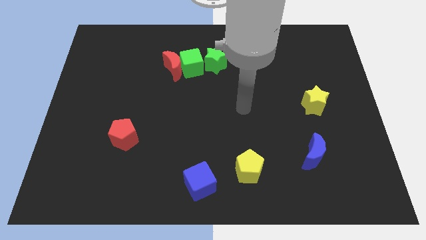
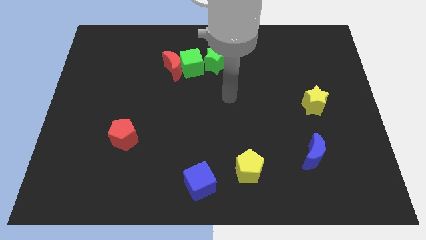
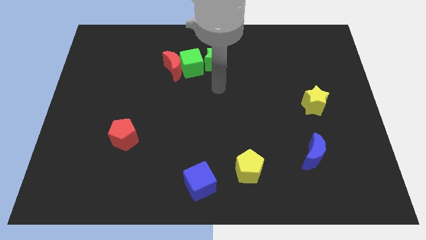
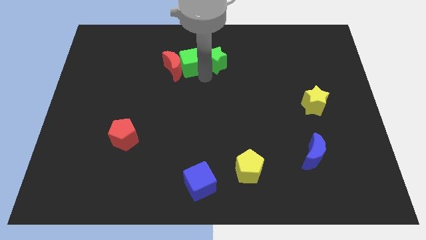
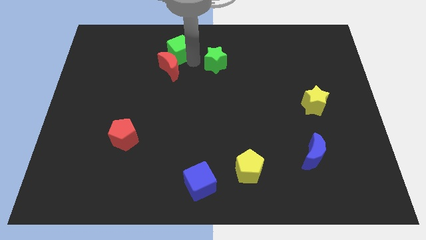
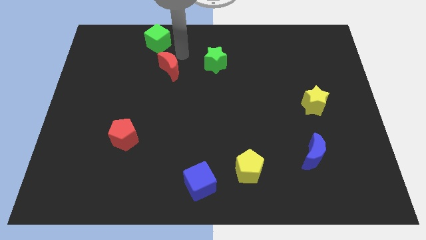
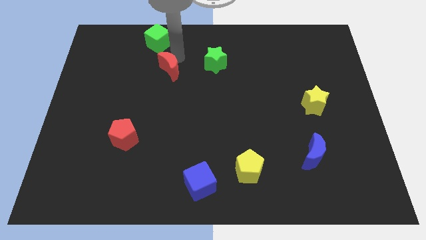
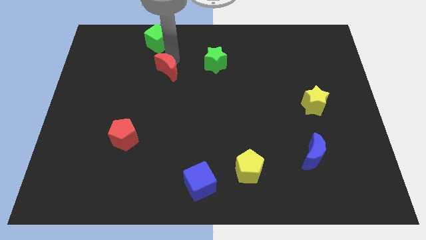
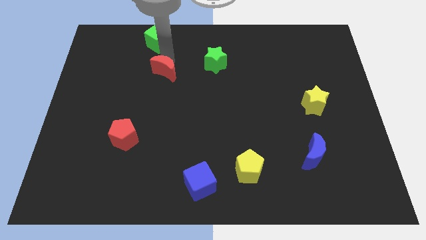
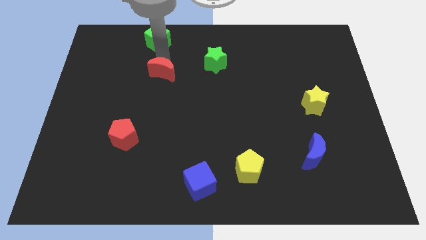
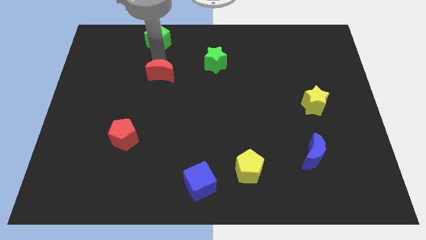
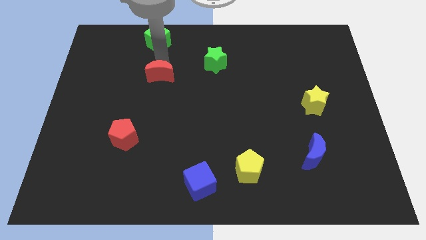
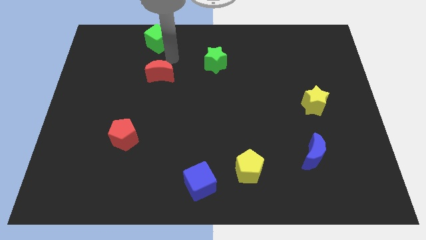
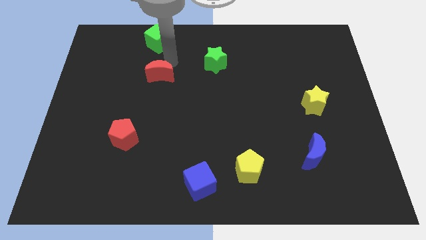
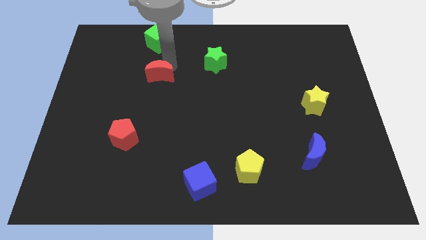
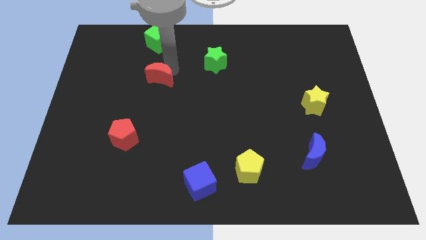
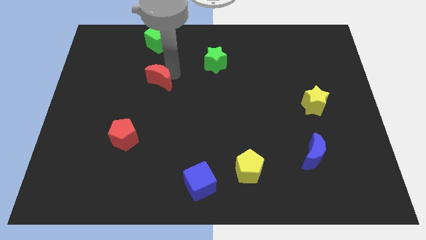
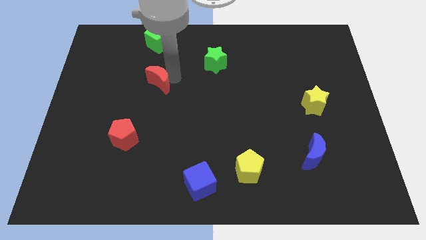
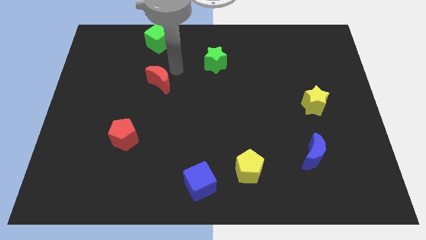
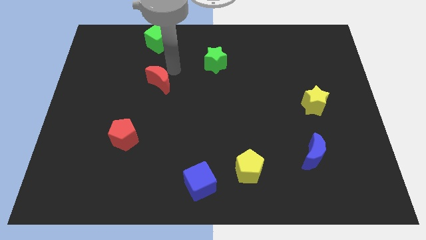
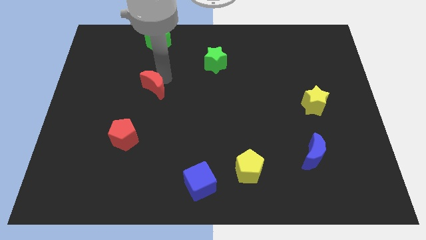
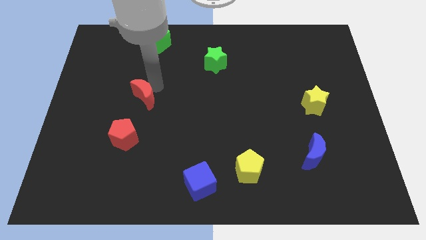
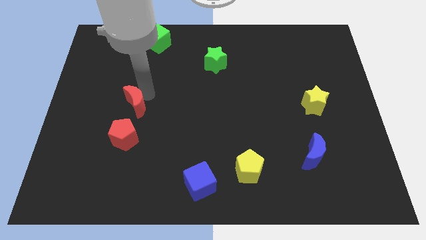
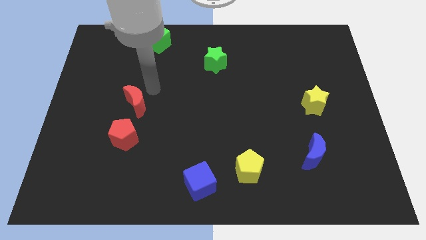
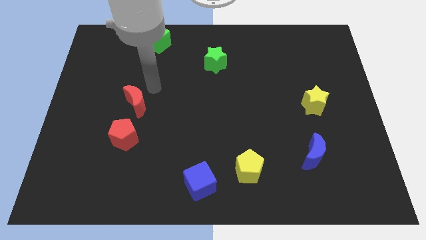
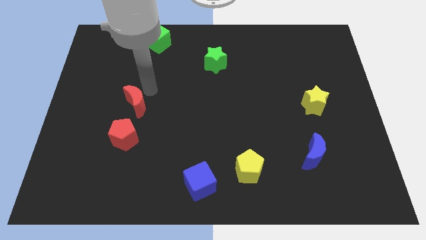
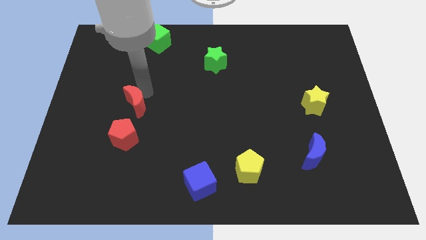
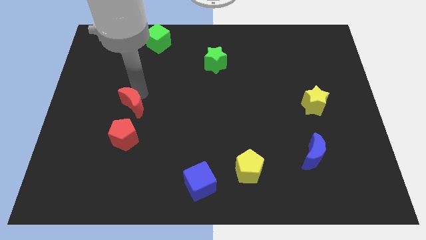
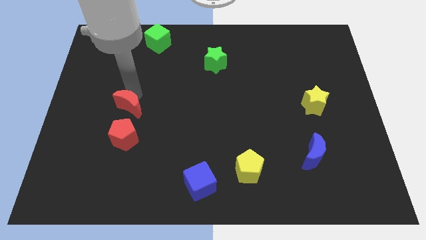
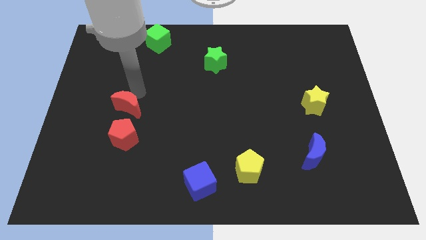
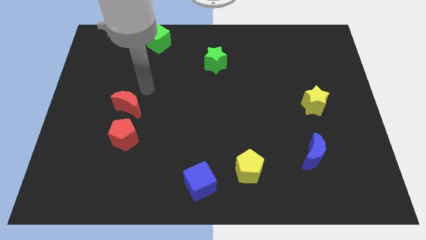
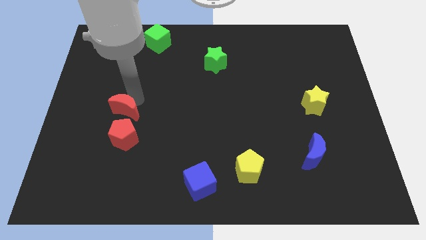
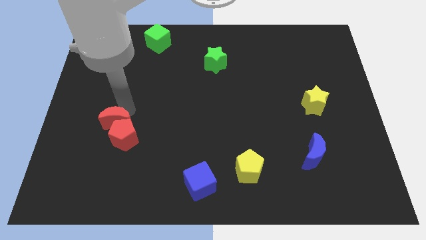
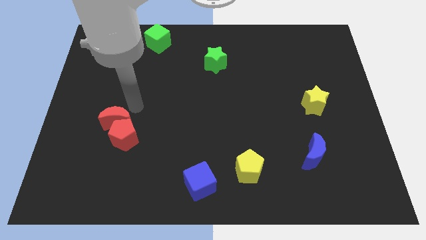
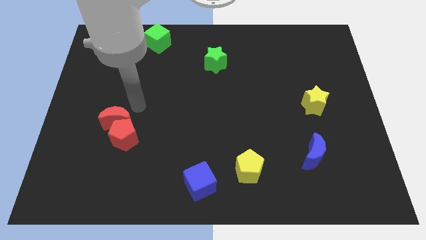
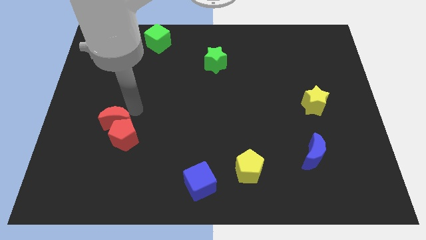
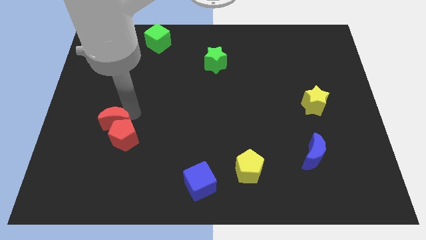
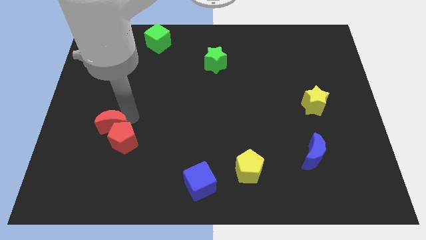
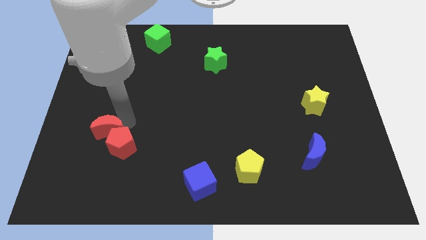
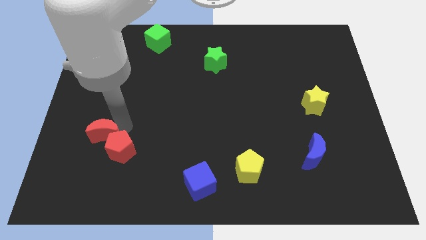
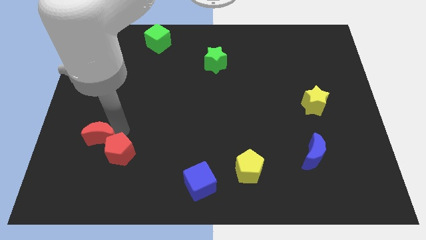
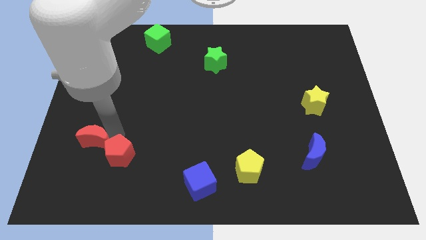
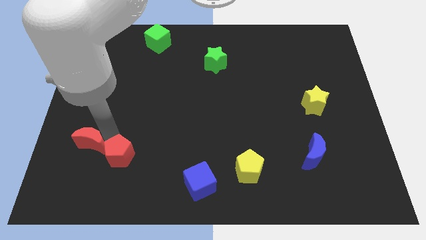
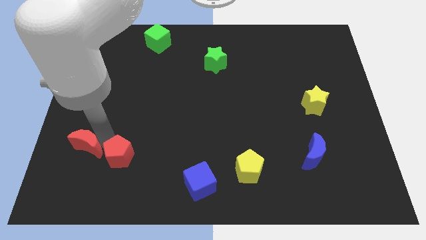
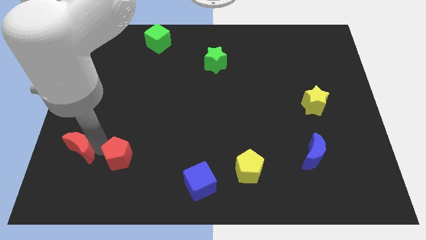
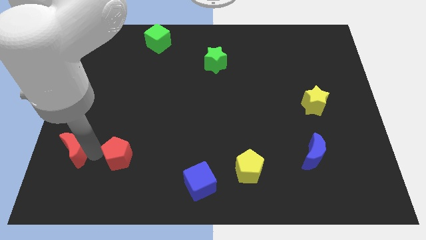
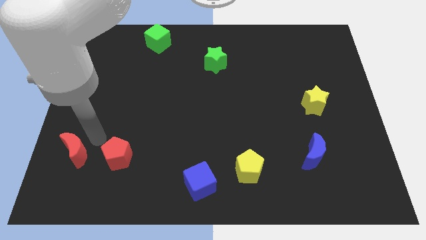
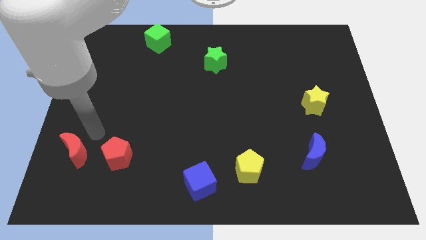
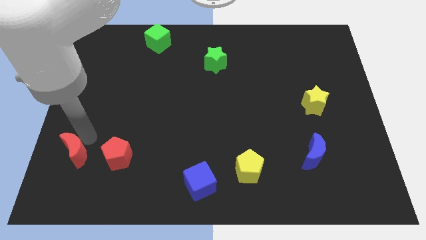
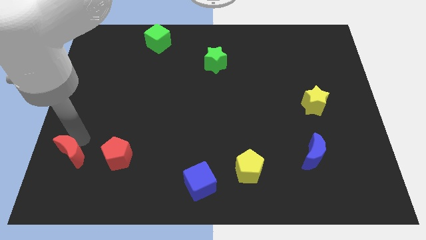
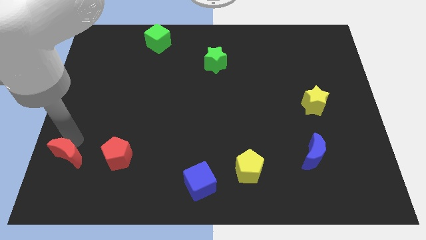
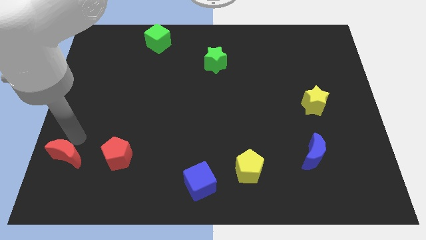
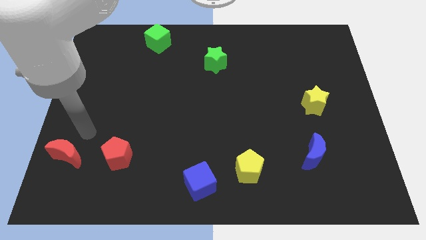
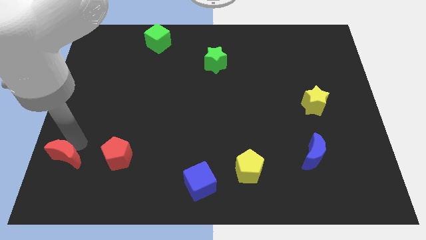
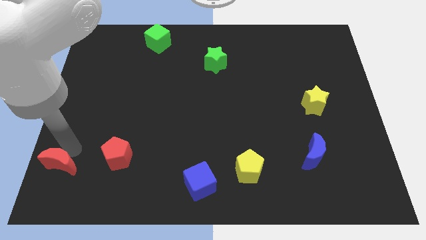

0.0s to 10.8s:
slide the red moon to the bottom left corner
